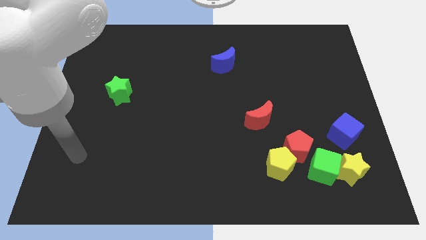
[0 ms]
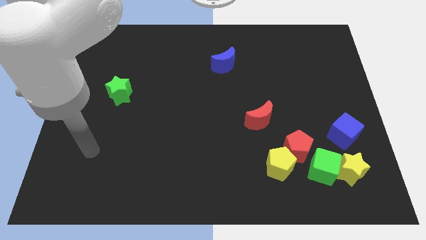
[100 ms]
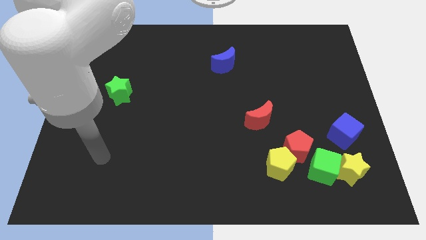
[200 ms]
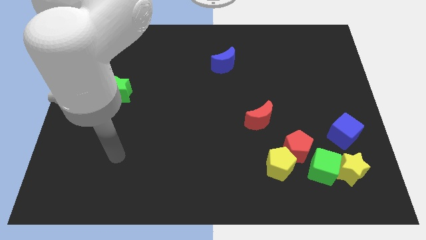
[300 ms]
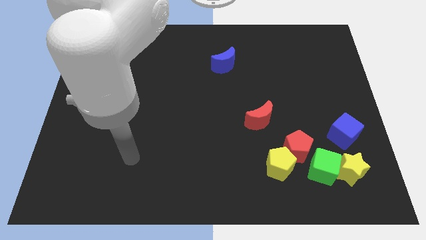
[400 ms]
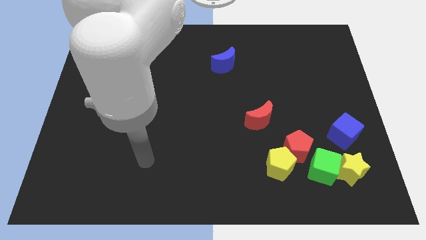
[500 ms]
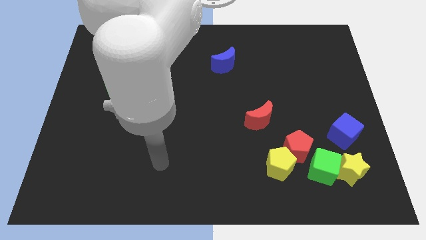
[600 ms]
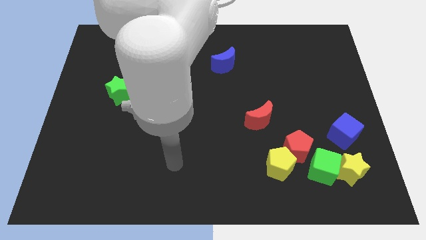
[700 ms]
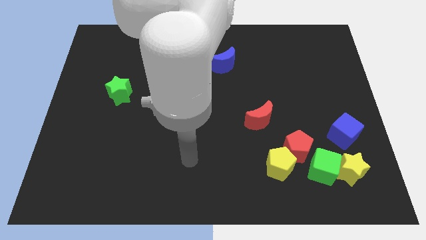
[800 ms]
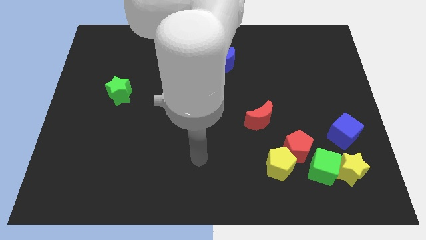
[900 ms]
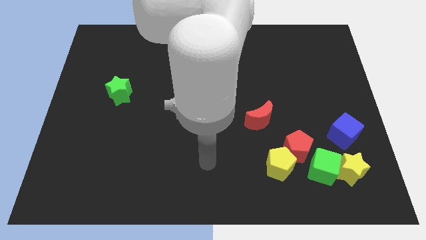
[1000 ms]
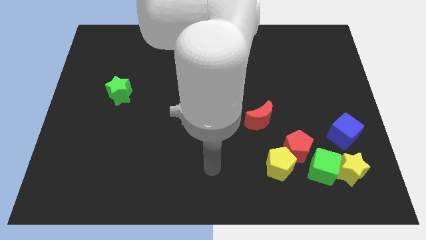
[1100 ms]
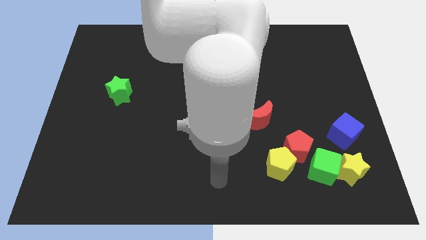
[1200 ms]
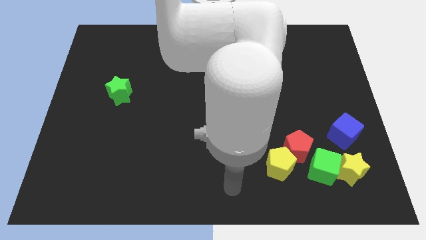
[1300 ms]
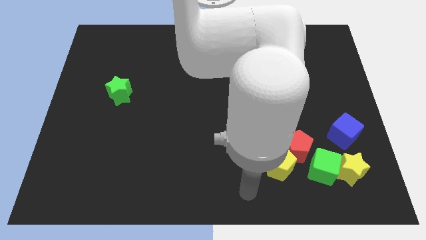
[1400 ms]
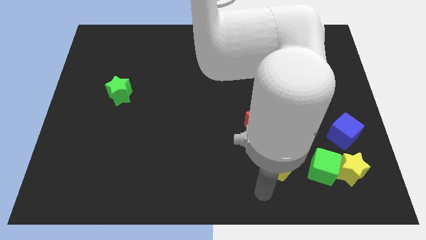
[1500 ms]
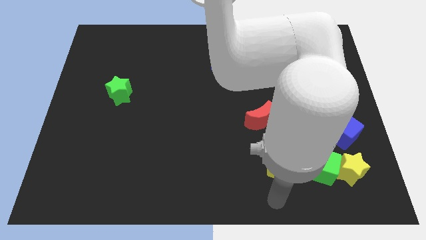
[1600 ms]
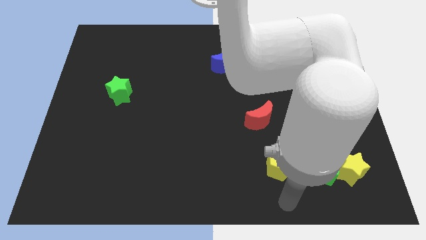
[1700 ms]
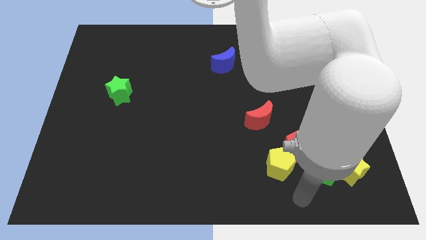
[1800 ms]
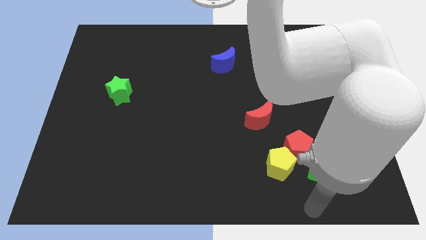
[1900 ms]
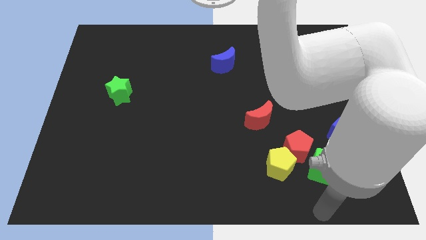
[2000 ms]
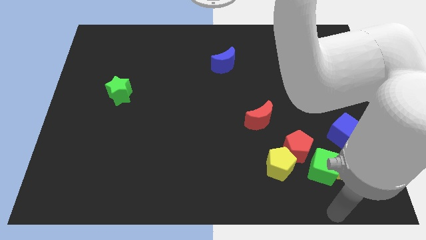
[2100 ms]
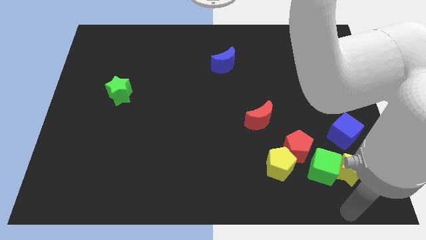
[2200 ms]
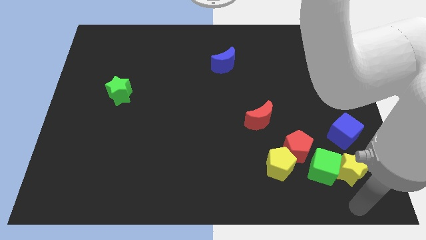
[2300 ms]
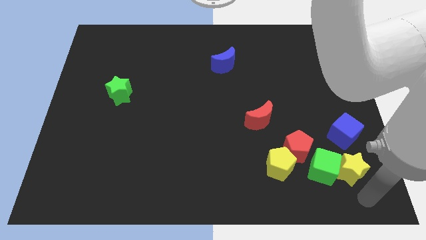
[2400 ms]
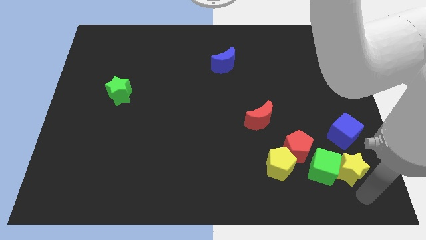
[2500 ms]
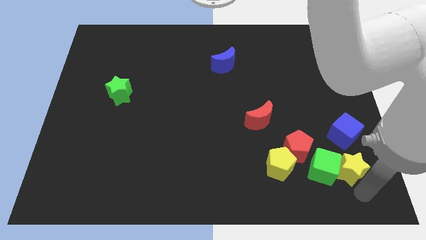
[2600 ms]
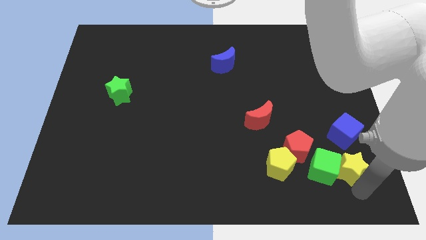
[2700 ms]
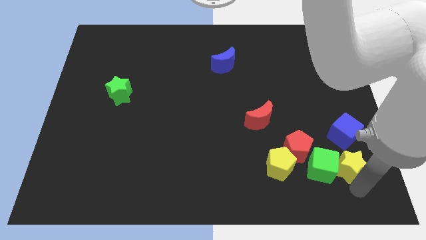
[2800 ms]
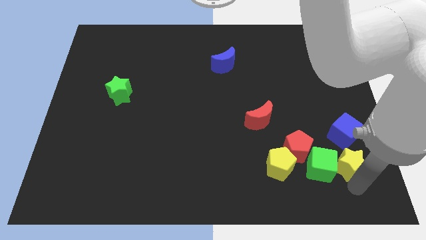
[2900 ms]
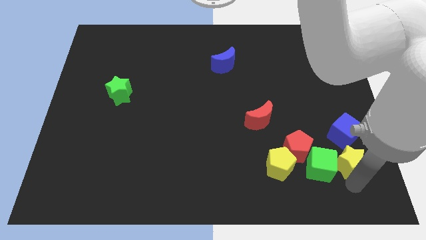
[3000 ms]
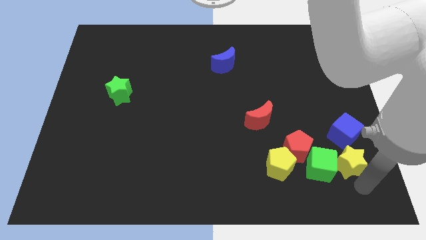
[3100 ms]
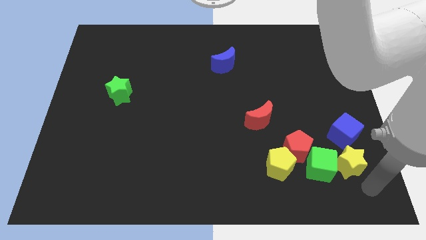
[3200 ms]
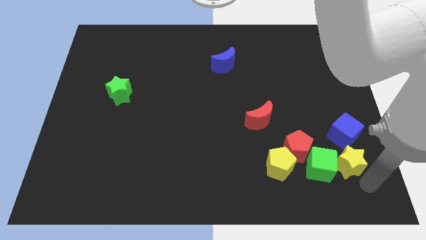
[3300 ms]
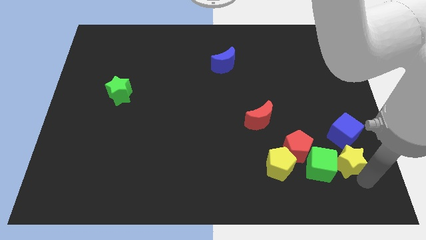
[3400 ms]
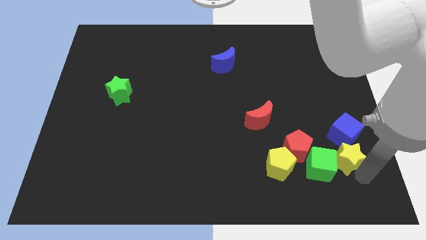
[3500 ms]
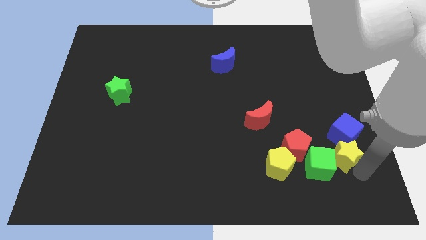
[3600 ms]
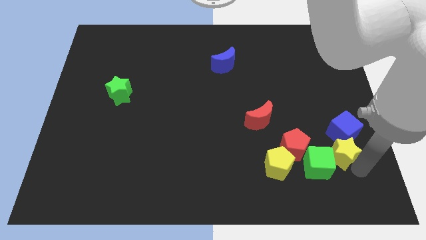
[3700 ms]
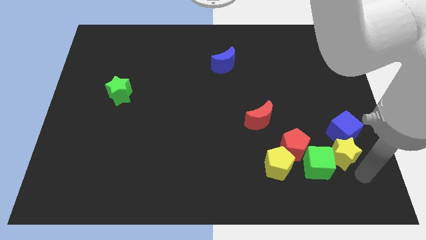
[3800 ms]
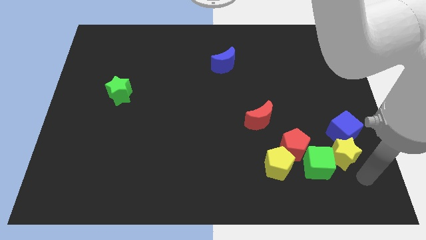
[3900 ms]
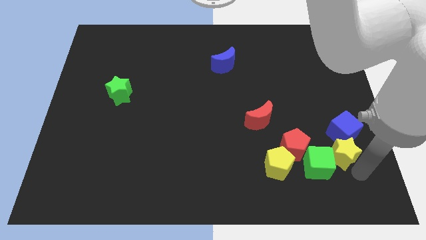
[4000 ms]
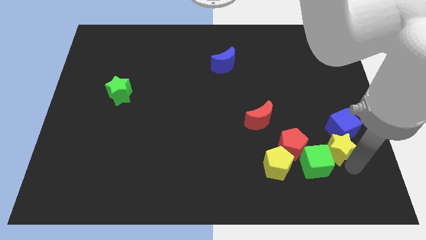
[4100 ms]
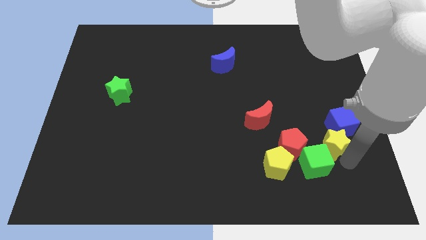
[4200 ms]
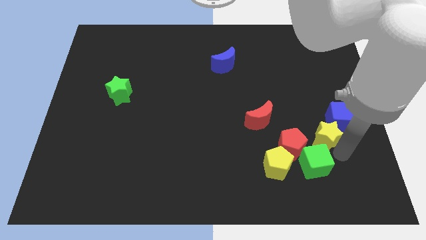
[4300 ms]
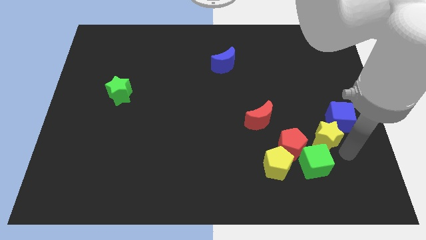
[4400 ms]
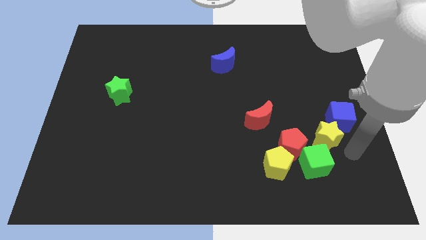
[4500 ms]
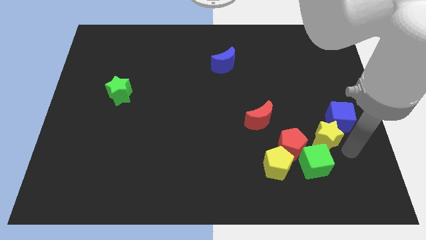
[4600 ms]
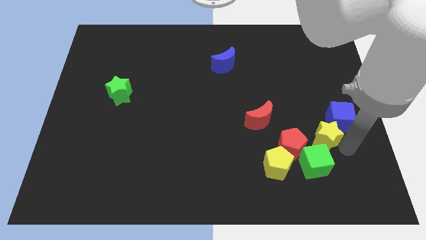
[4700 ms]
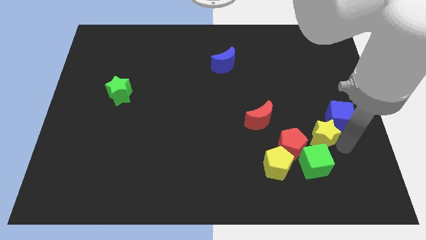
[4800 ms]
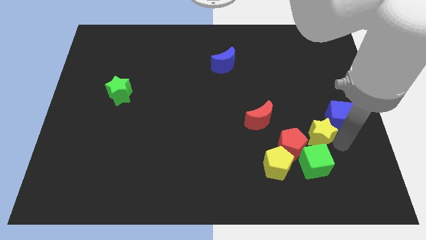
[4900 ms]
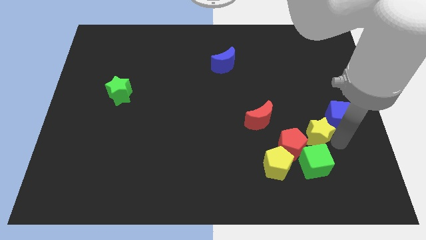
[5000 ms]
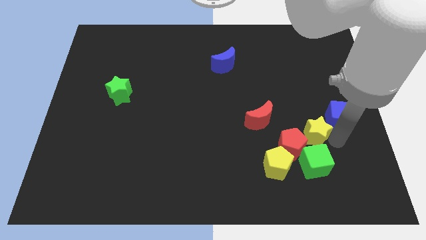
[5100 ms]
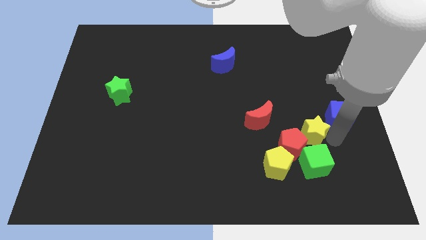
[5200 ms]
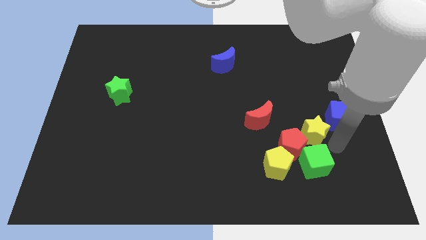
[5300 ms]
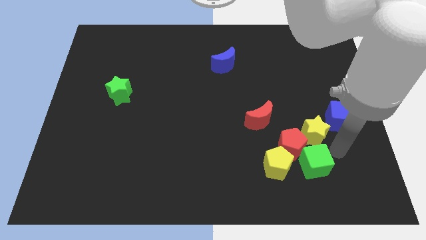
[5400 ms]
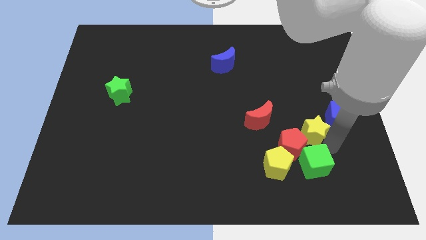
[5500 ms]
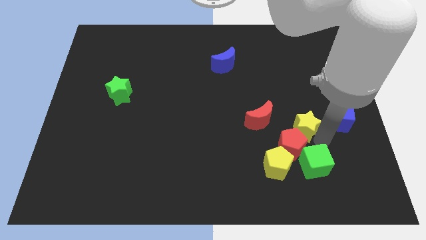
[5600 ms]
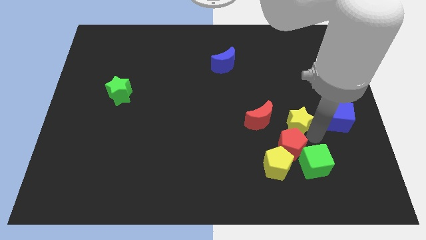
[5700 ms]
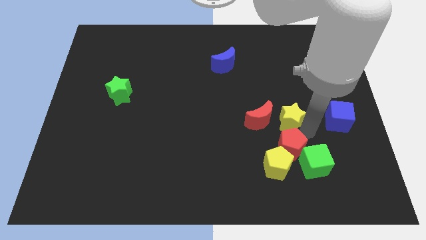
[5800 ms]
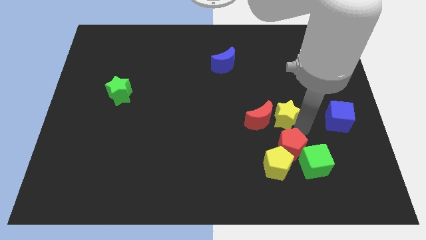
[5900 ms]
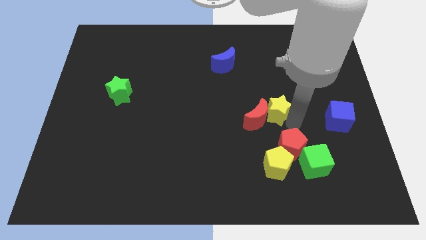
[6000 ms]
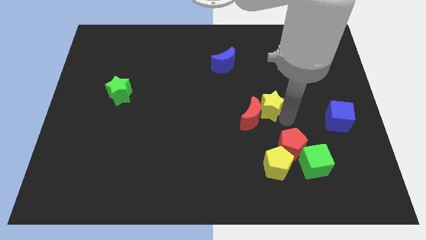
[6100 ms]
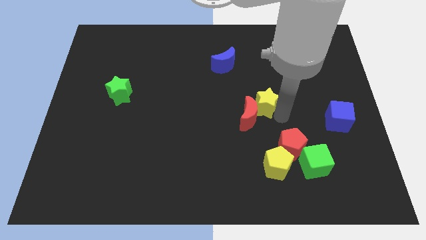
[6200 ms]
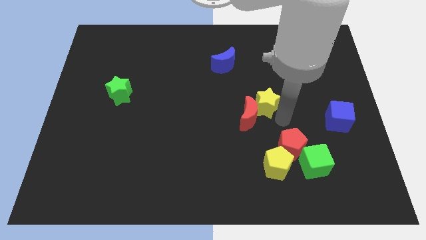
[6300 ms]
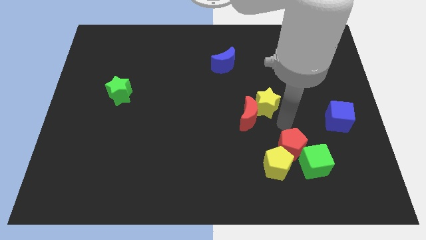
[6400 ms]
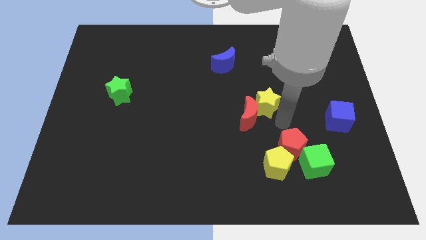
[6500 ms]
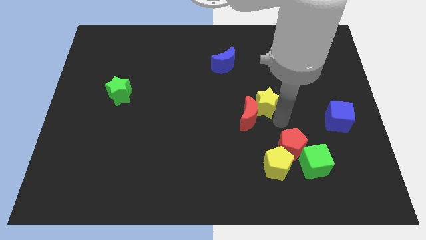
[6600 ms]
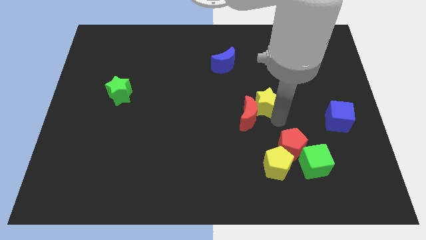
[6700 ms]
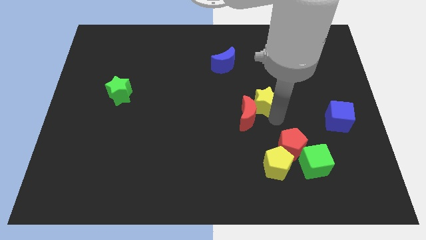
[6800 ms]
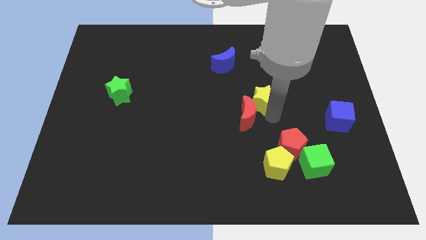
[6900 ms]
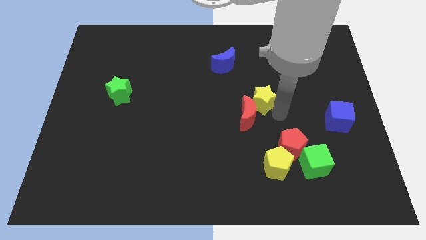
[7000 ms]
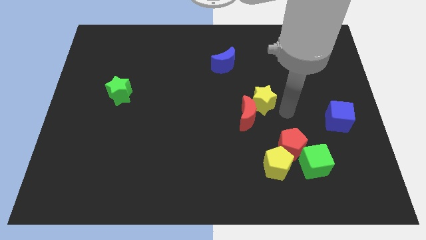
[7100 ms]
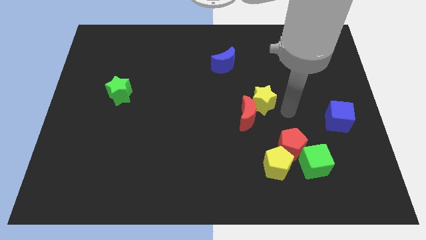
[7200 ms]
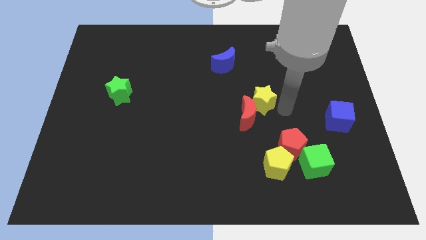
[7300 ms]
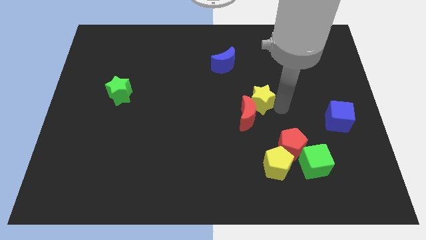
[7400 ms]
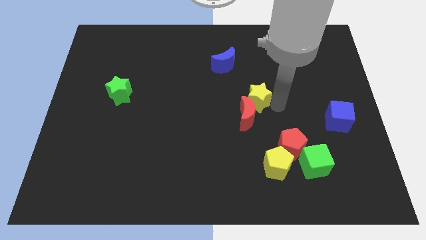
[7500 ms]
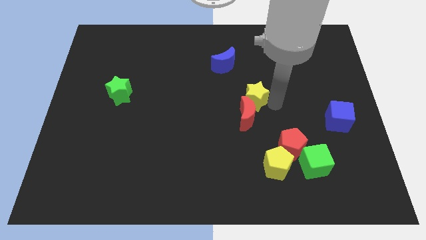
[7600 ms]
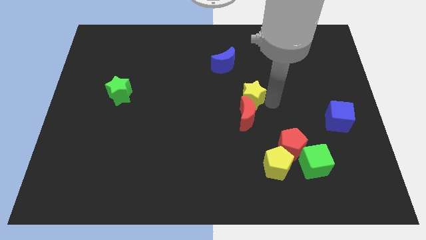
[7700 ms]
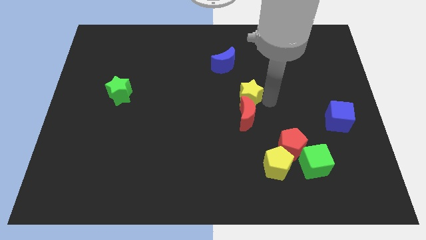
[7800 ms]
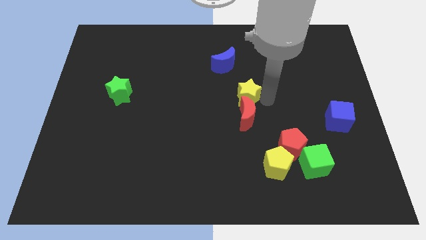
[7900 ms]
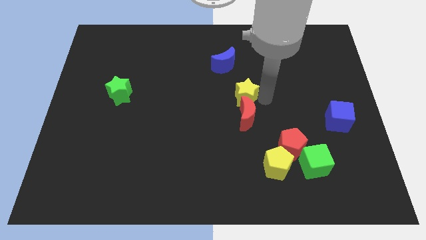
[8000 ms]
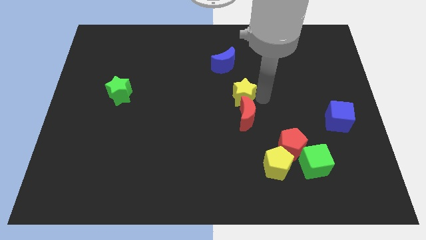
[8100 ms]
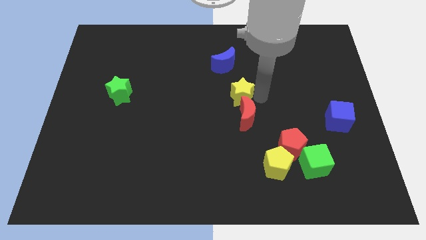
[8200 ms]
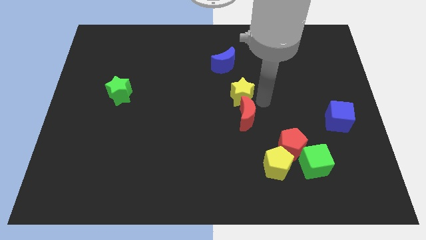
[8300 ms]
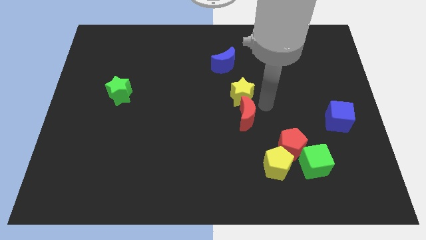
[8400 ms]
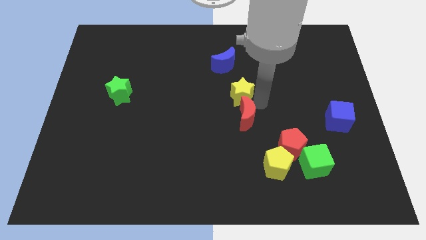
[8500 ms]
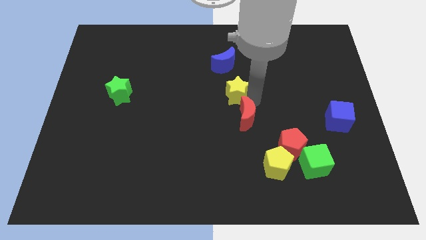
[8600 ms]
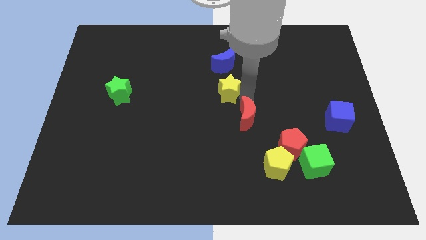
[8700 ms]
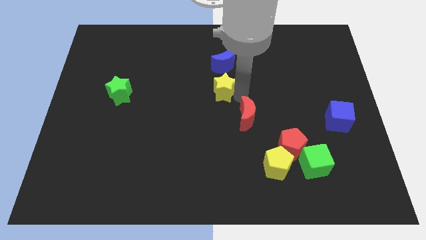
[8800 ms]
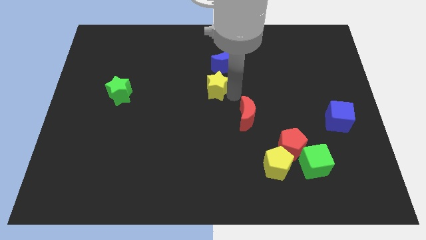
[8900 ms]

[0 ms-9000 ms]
move the yellow star to the bottom left side of the blue moon
